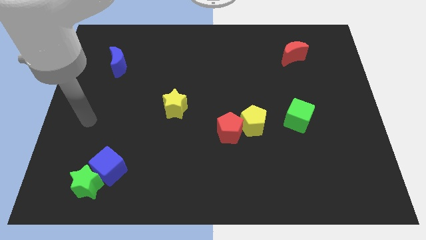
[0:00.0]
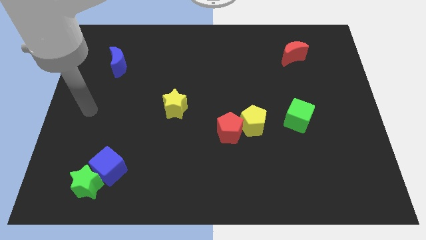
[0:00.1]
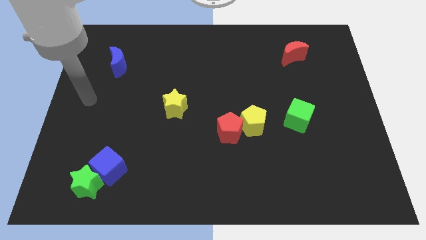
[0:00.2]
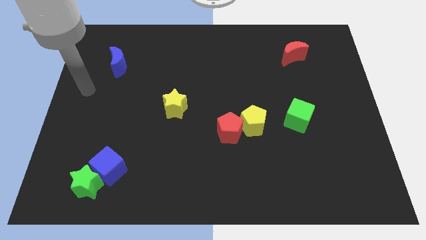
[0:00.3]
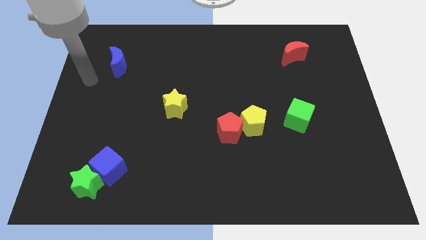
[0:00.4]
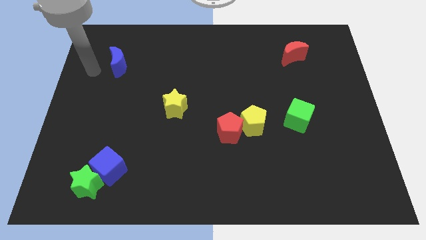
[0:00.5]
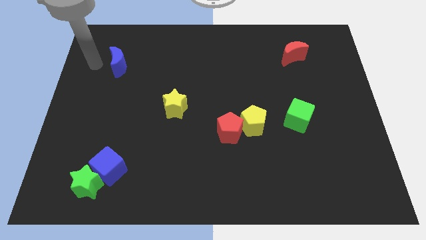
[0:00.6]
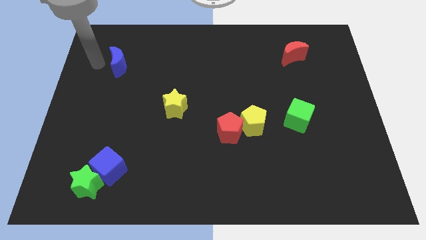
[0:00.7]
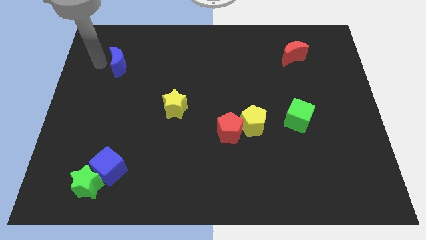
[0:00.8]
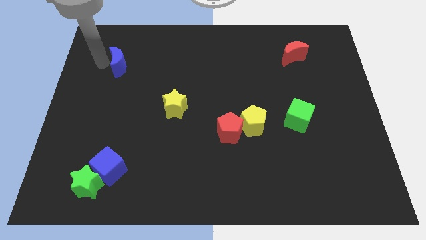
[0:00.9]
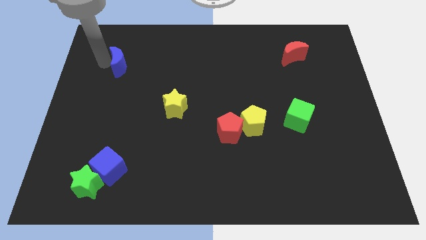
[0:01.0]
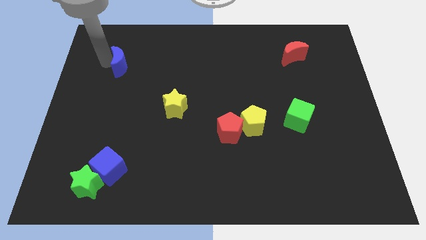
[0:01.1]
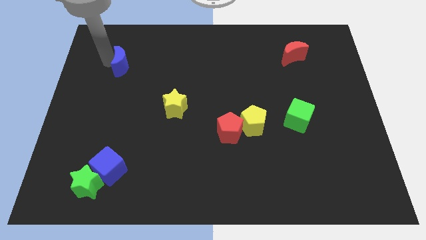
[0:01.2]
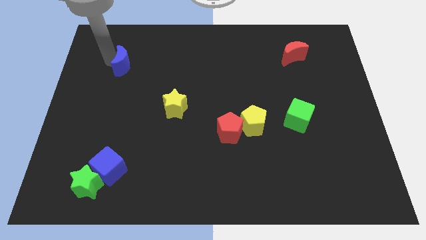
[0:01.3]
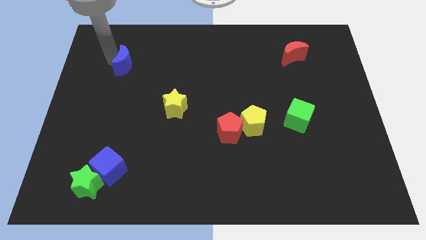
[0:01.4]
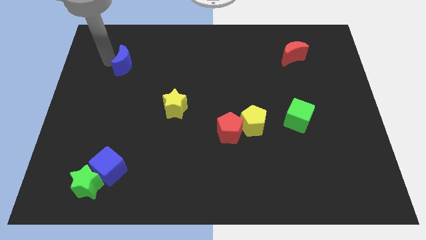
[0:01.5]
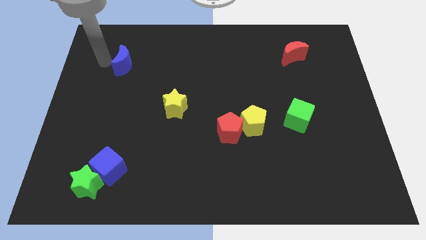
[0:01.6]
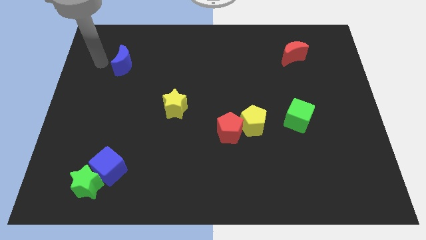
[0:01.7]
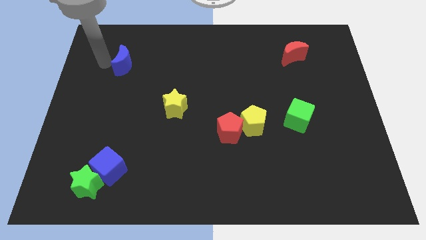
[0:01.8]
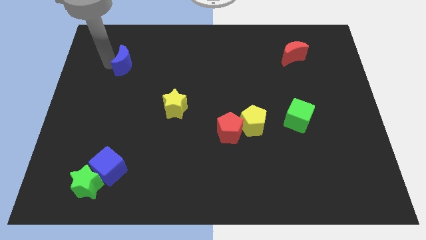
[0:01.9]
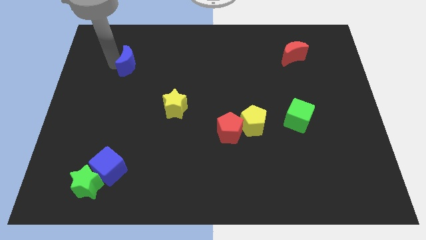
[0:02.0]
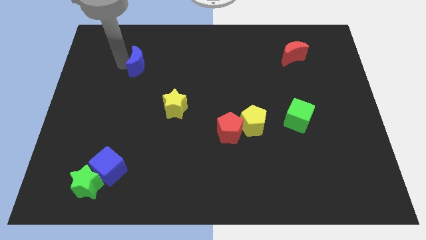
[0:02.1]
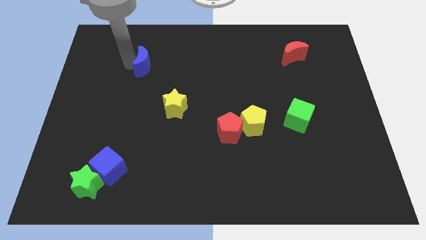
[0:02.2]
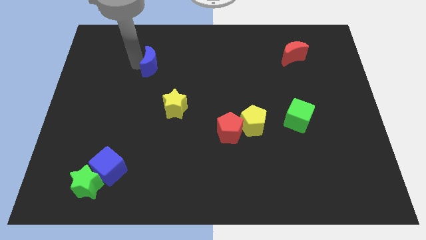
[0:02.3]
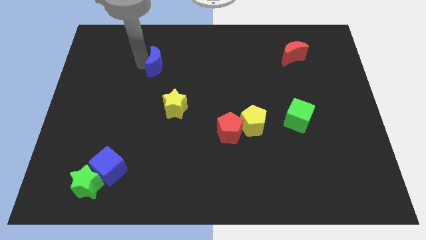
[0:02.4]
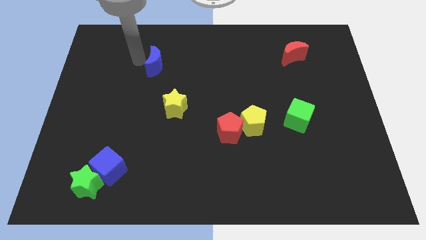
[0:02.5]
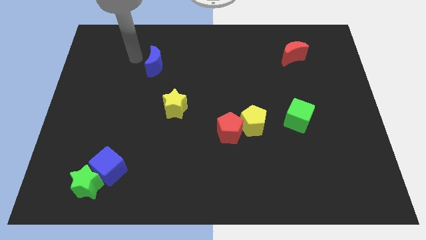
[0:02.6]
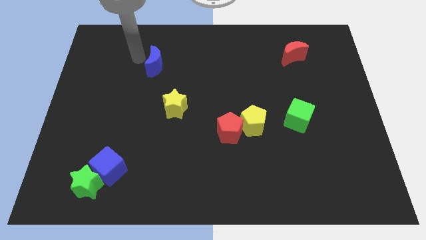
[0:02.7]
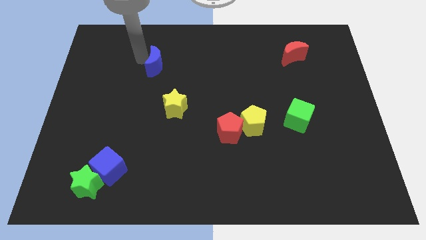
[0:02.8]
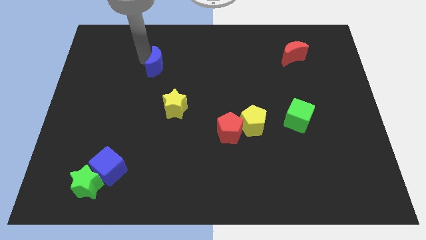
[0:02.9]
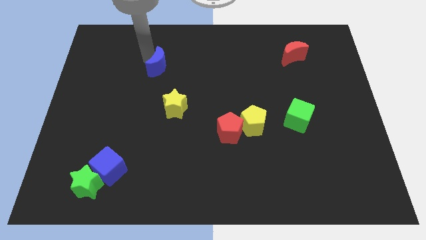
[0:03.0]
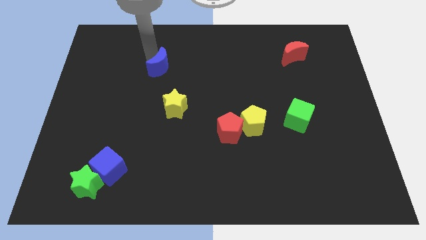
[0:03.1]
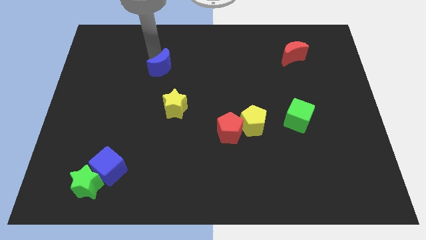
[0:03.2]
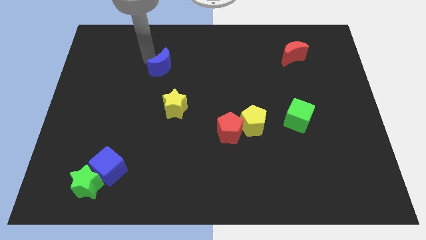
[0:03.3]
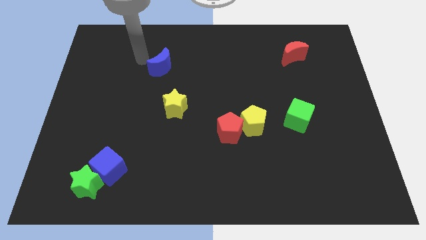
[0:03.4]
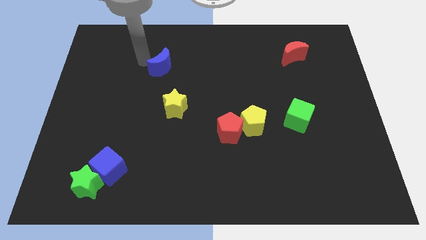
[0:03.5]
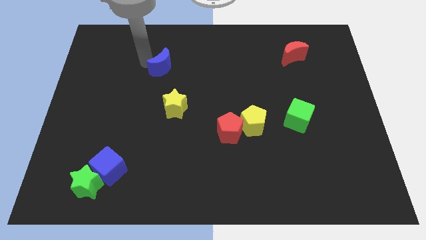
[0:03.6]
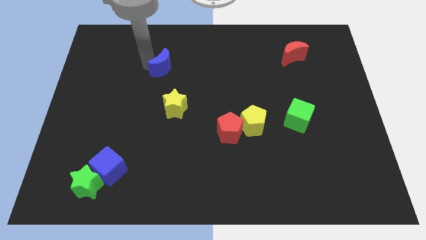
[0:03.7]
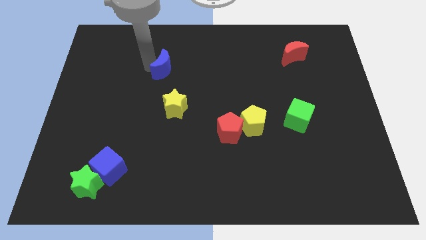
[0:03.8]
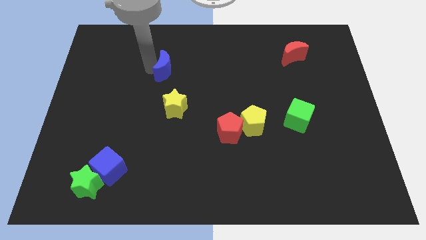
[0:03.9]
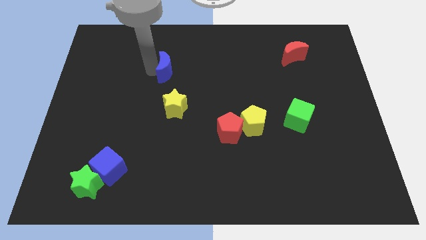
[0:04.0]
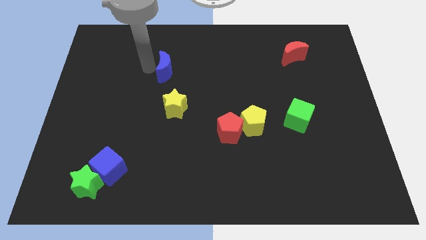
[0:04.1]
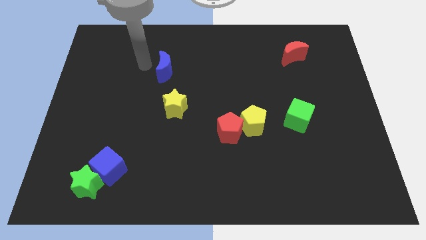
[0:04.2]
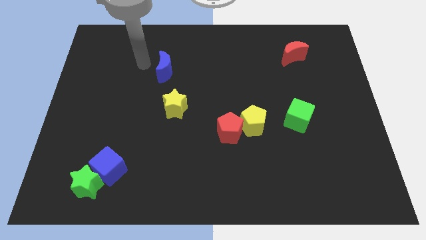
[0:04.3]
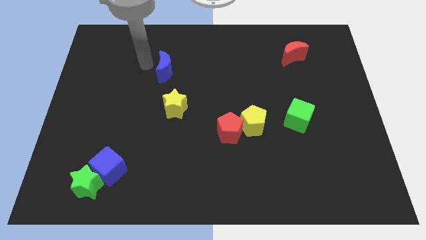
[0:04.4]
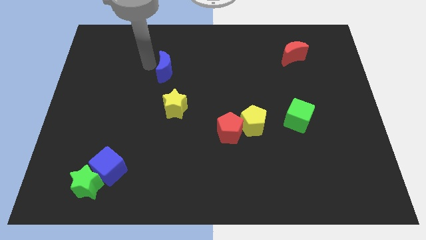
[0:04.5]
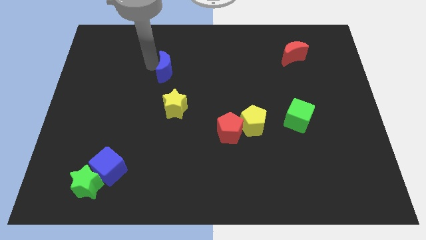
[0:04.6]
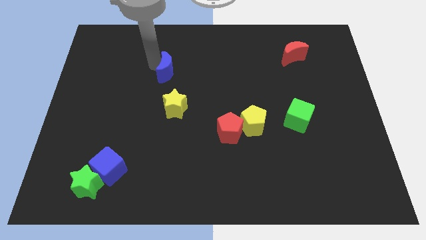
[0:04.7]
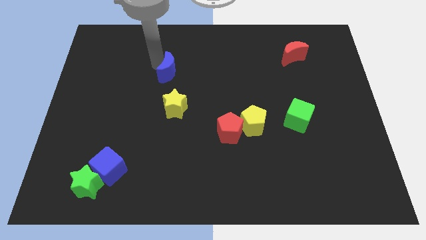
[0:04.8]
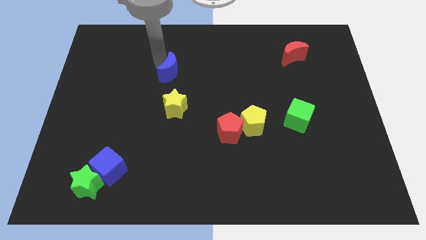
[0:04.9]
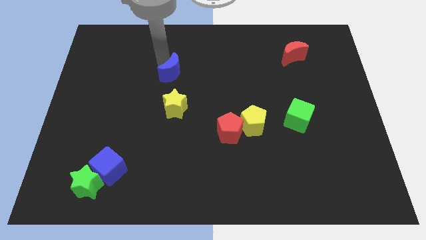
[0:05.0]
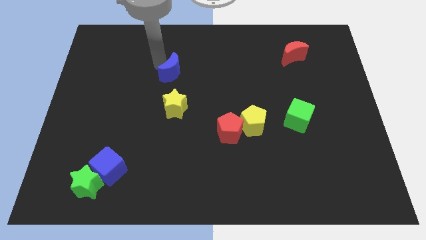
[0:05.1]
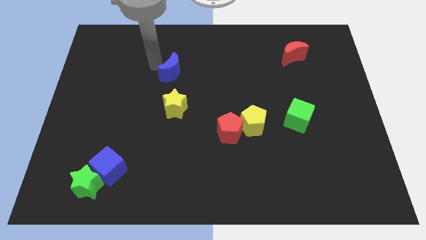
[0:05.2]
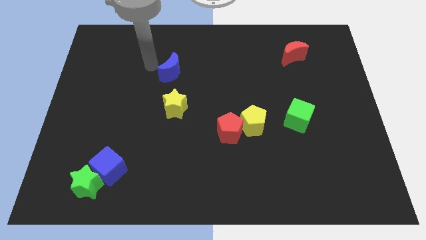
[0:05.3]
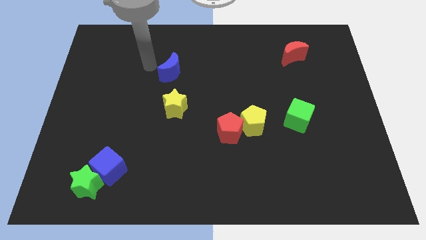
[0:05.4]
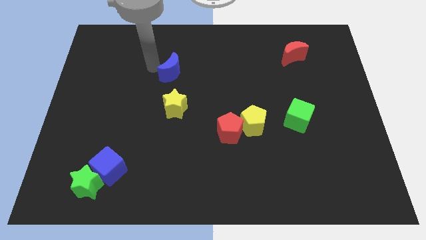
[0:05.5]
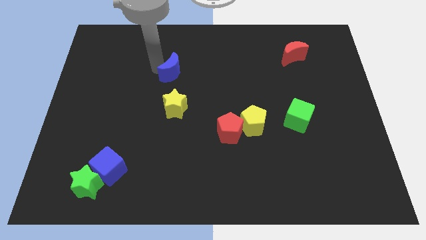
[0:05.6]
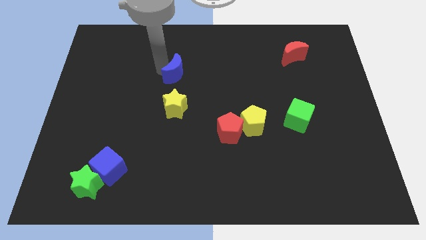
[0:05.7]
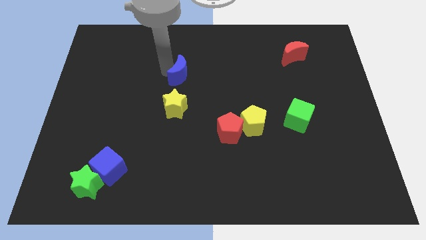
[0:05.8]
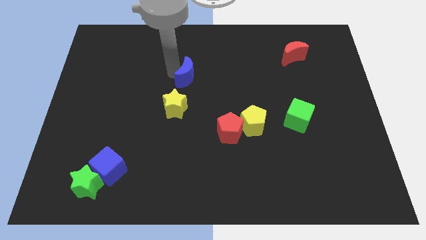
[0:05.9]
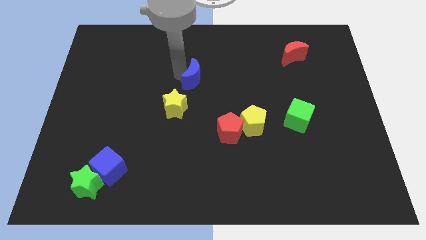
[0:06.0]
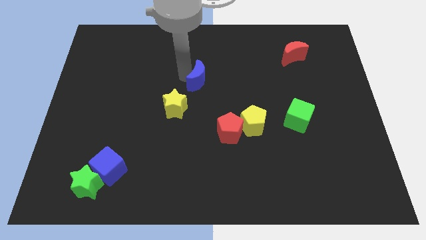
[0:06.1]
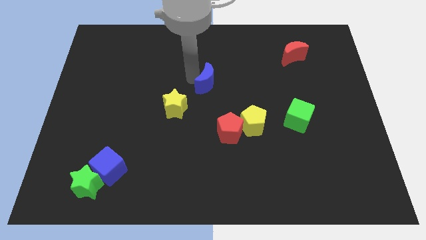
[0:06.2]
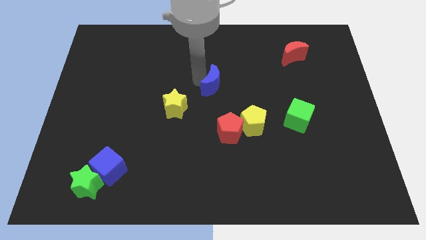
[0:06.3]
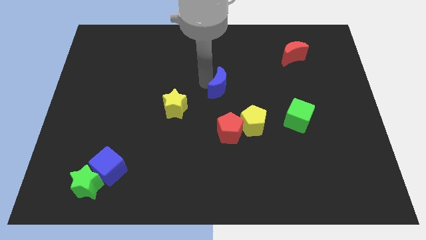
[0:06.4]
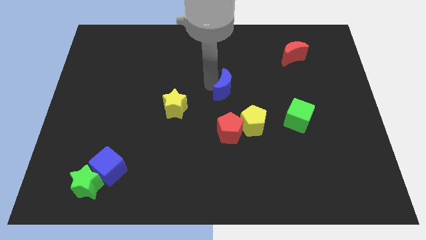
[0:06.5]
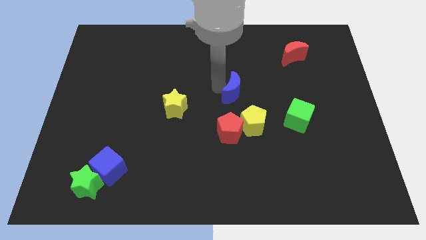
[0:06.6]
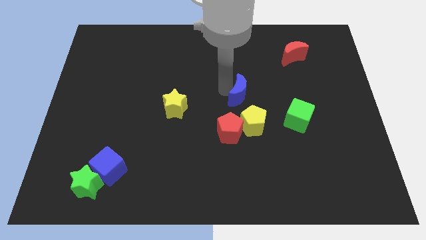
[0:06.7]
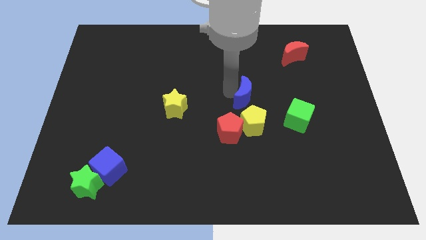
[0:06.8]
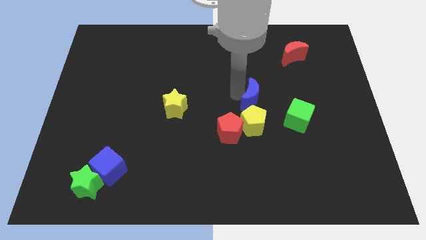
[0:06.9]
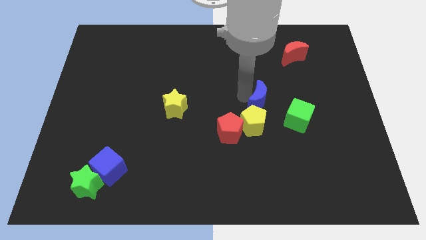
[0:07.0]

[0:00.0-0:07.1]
push the blue moon to the top right of the yellow pentagon

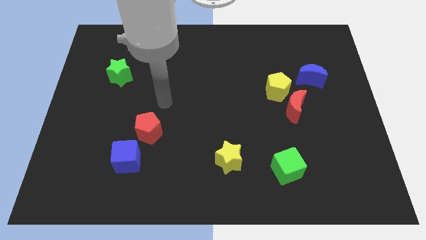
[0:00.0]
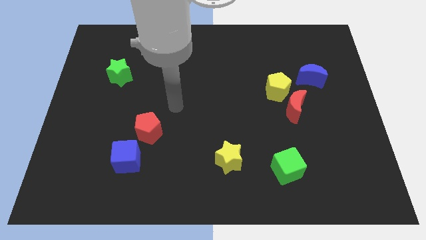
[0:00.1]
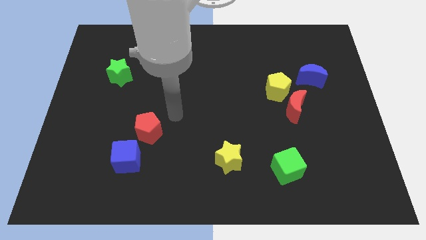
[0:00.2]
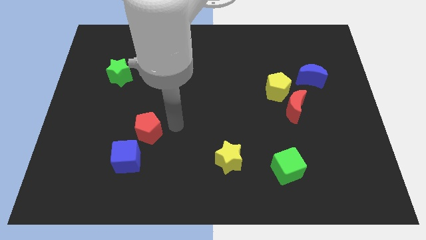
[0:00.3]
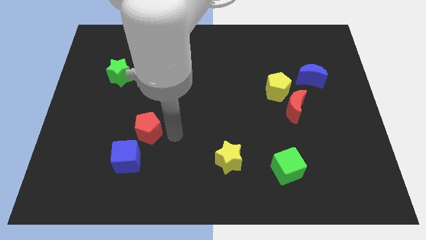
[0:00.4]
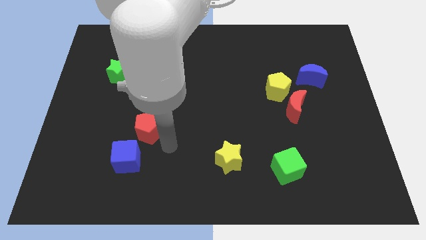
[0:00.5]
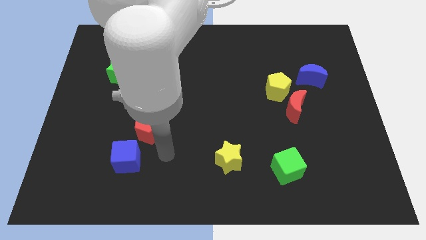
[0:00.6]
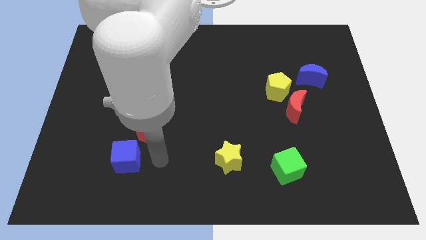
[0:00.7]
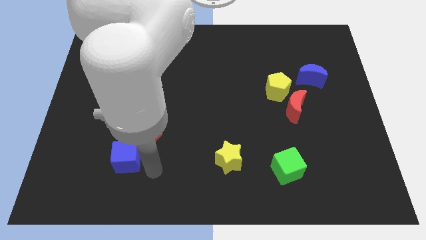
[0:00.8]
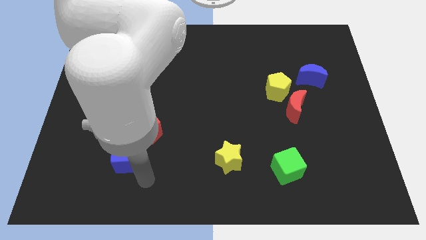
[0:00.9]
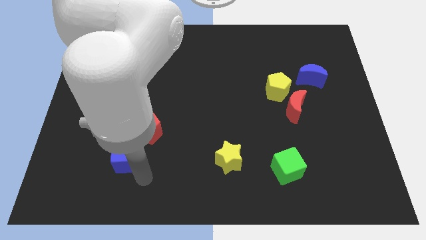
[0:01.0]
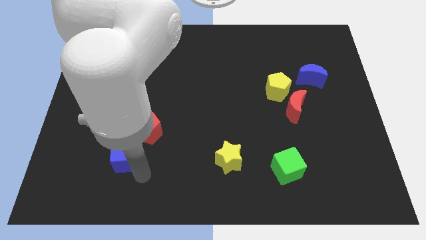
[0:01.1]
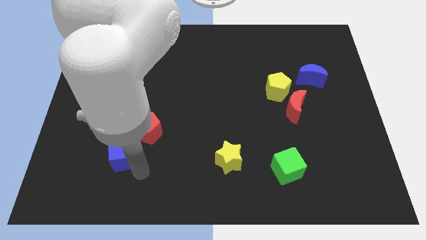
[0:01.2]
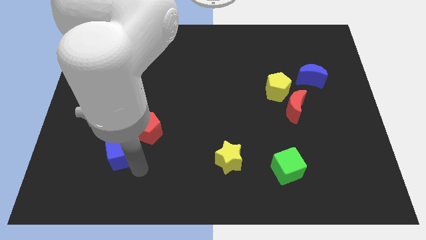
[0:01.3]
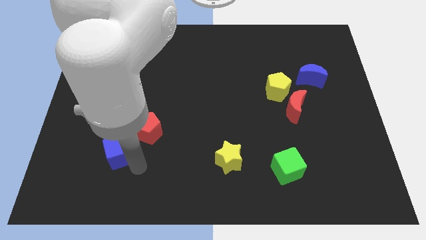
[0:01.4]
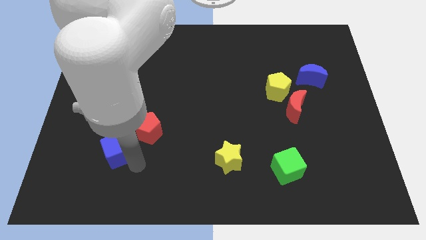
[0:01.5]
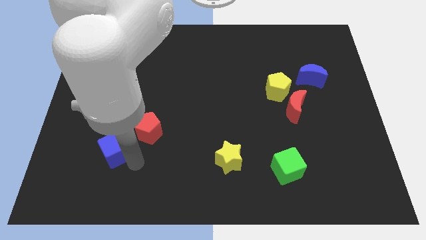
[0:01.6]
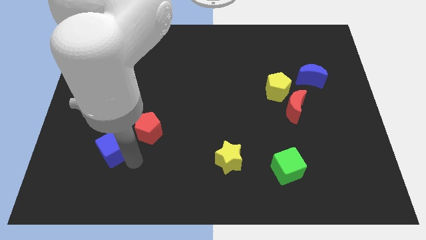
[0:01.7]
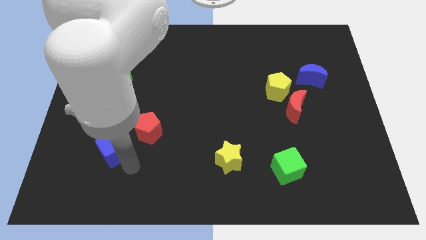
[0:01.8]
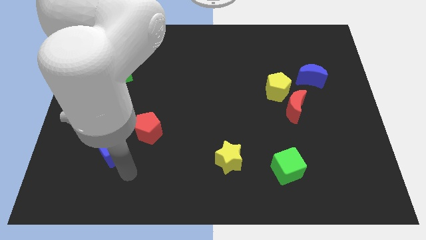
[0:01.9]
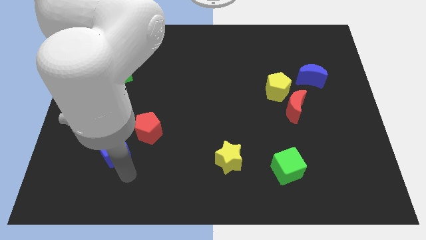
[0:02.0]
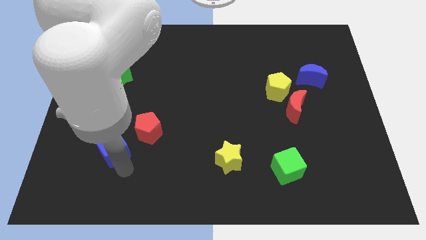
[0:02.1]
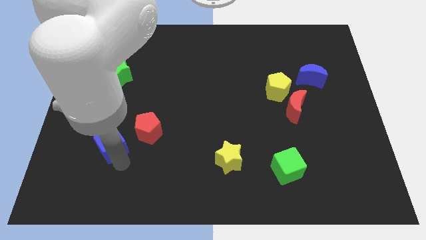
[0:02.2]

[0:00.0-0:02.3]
move the blue cube to the left side of the red pentagon
